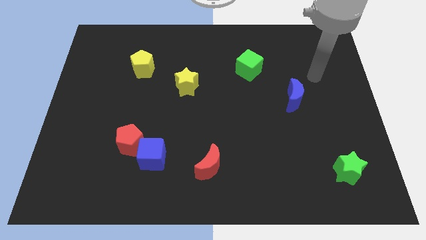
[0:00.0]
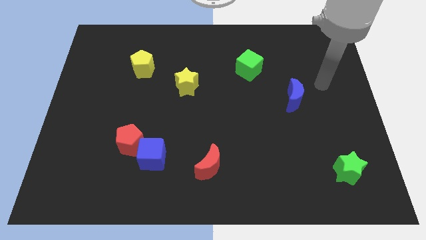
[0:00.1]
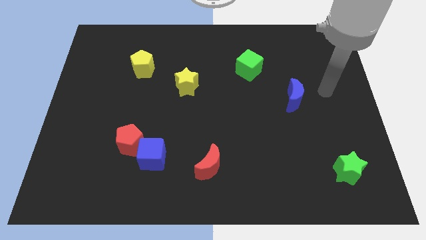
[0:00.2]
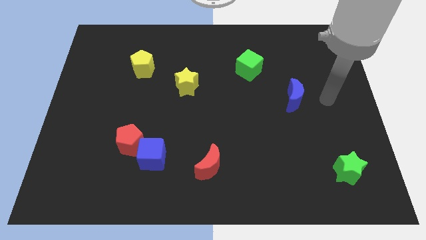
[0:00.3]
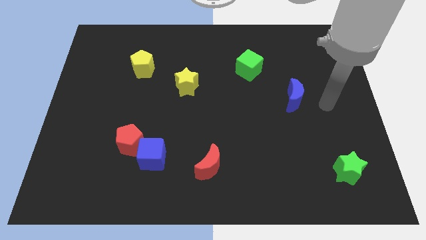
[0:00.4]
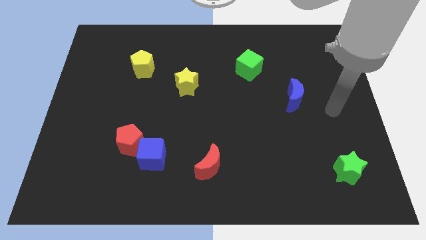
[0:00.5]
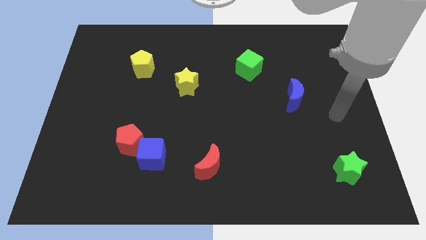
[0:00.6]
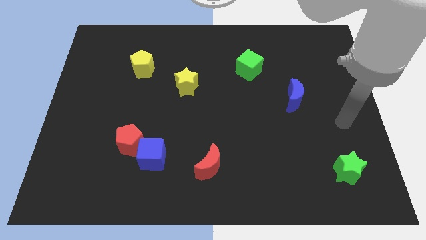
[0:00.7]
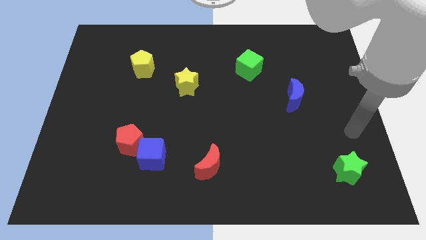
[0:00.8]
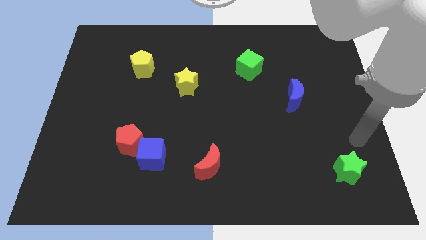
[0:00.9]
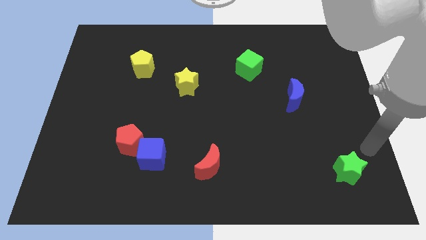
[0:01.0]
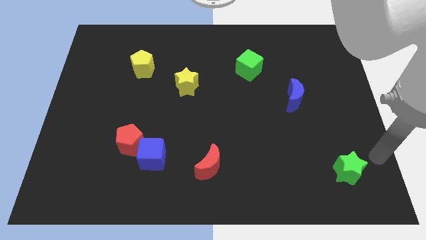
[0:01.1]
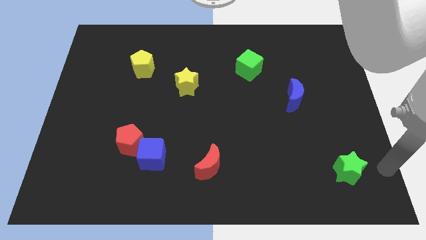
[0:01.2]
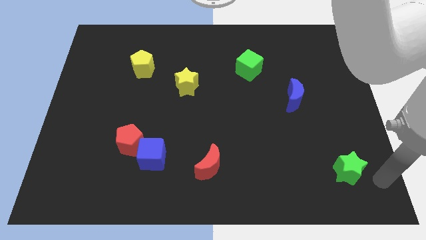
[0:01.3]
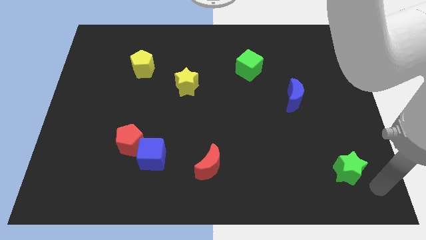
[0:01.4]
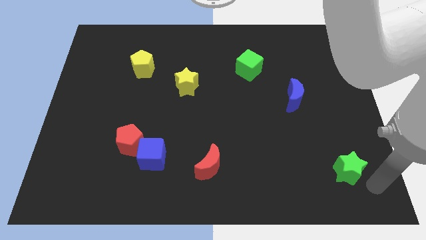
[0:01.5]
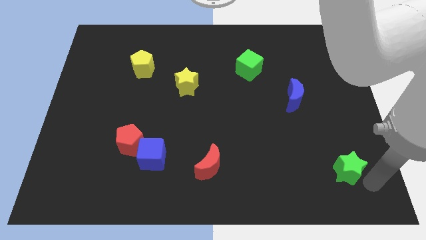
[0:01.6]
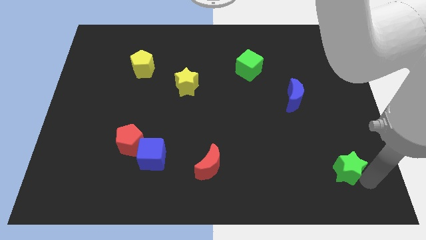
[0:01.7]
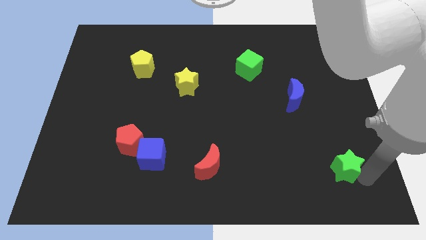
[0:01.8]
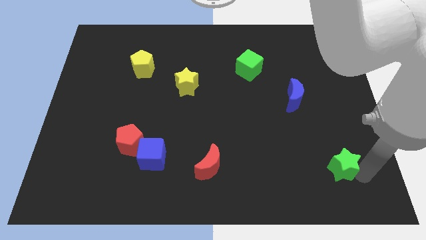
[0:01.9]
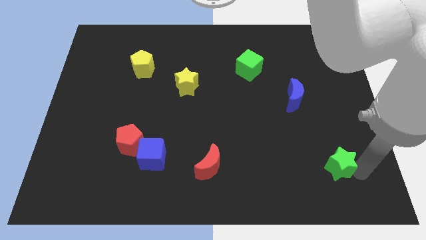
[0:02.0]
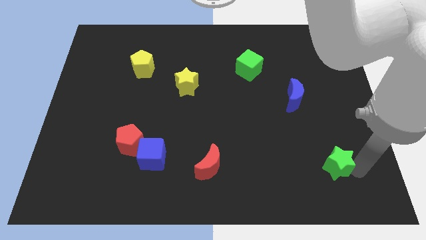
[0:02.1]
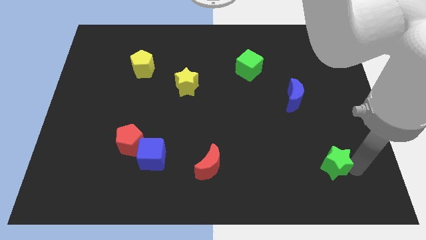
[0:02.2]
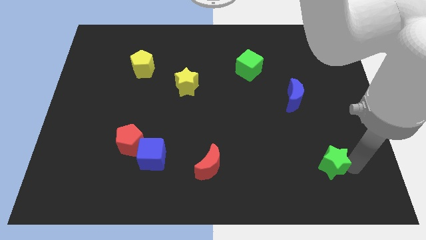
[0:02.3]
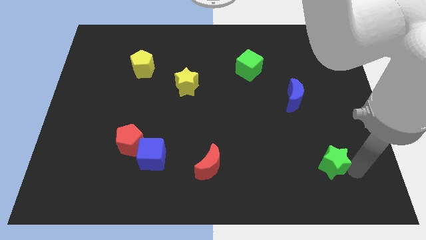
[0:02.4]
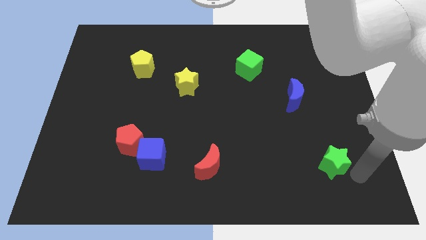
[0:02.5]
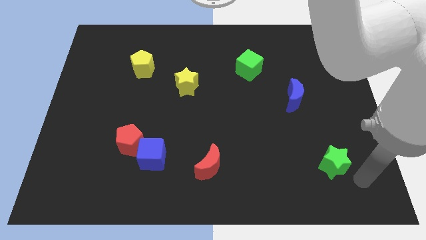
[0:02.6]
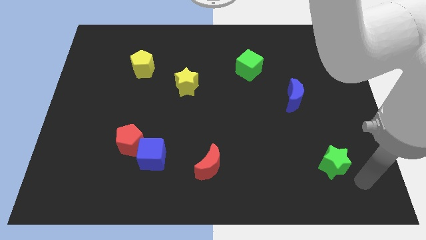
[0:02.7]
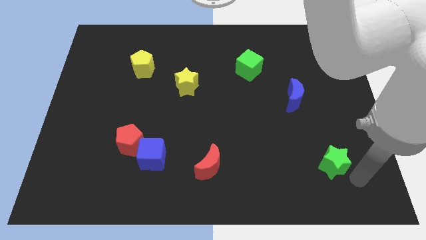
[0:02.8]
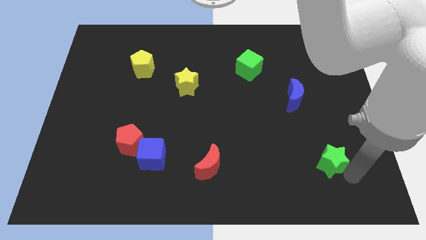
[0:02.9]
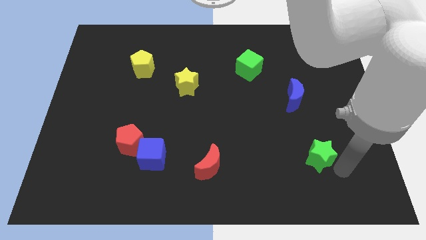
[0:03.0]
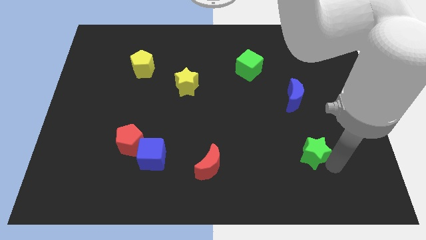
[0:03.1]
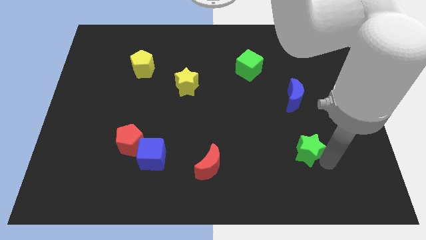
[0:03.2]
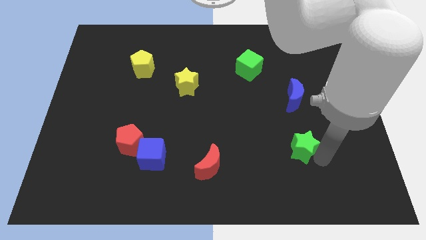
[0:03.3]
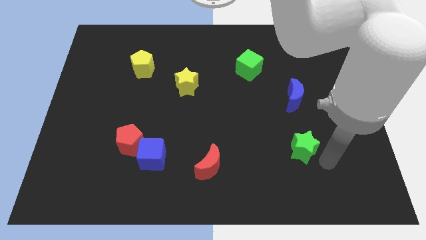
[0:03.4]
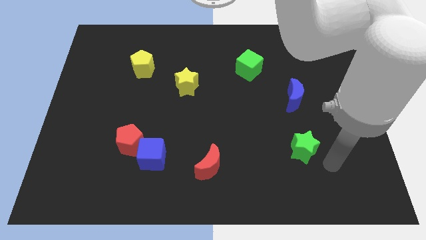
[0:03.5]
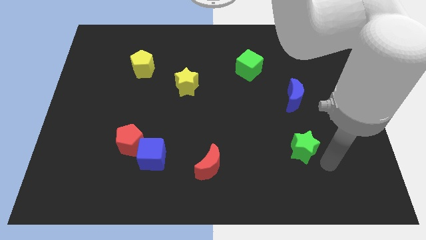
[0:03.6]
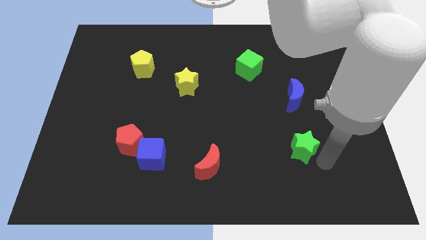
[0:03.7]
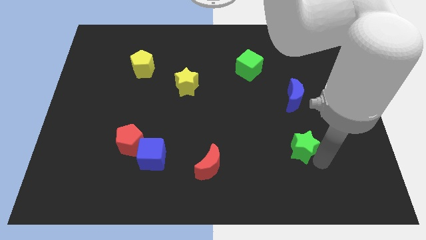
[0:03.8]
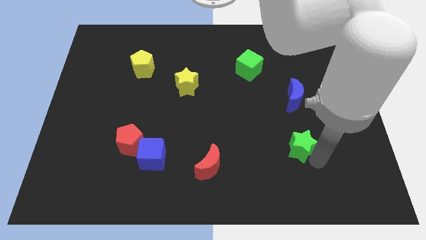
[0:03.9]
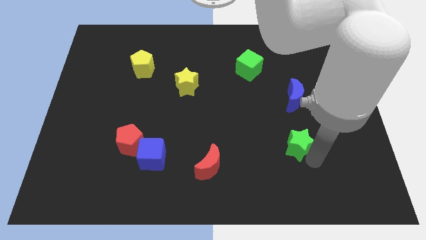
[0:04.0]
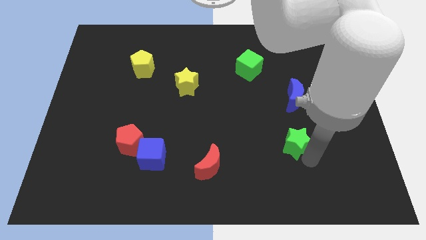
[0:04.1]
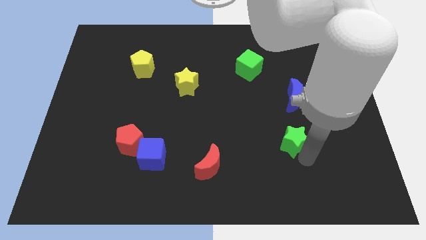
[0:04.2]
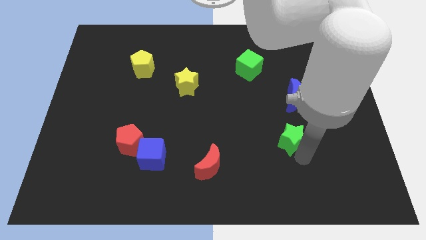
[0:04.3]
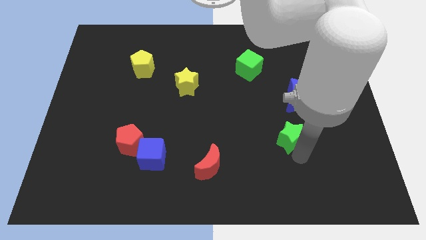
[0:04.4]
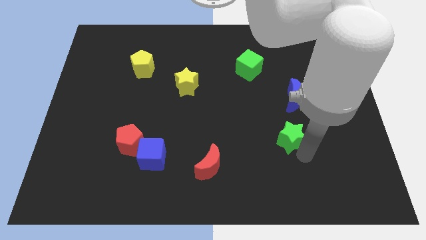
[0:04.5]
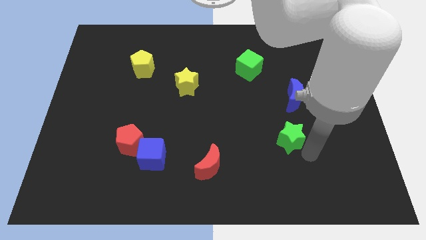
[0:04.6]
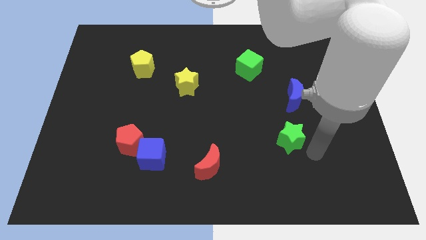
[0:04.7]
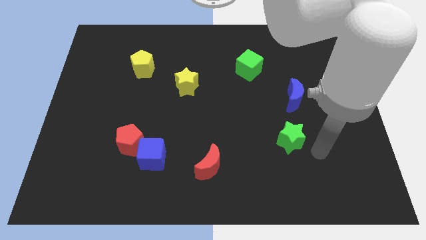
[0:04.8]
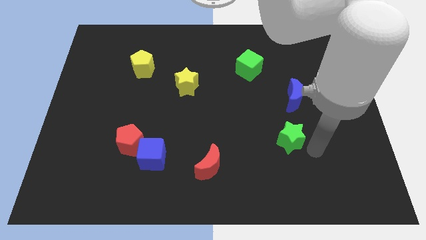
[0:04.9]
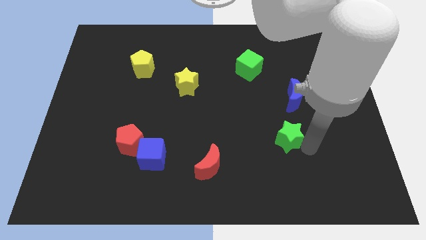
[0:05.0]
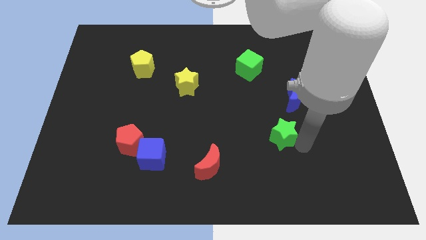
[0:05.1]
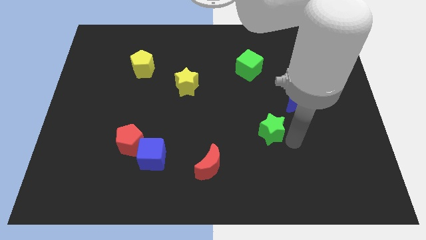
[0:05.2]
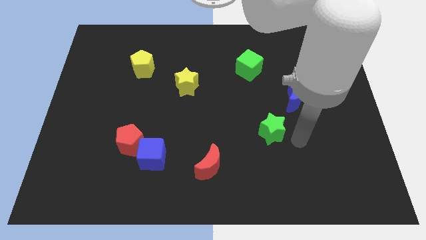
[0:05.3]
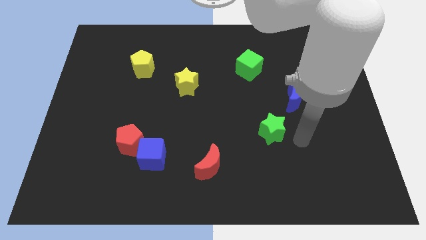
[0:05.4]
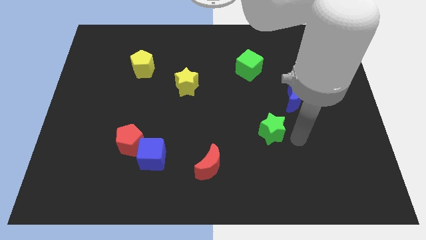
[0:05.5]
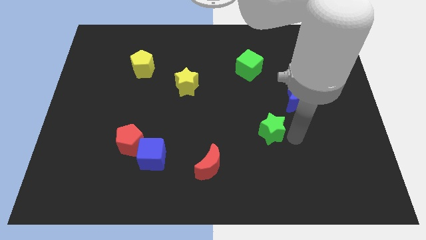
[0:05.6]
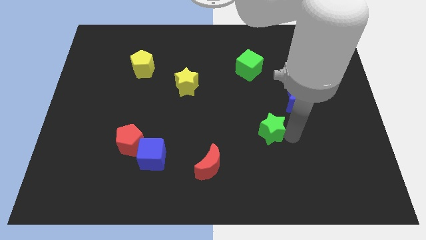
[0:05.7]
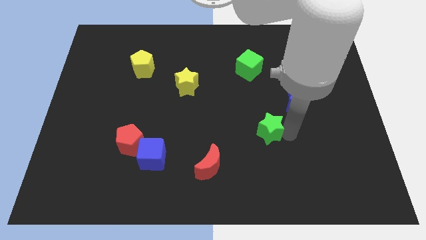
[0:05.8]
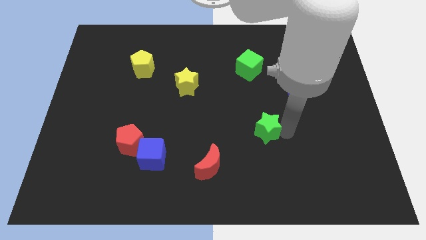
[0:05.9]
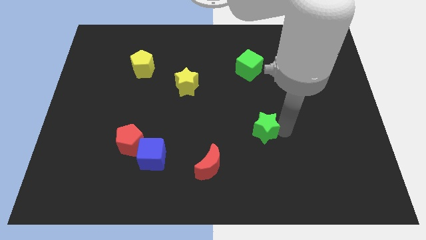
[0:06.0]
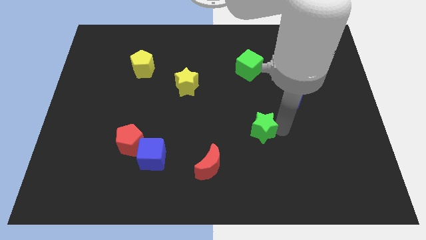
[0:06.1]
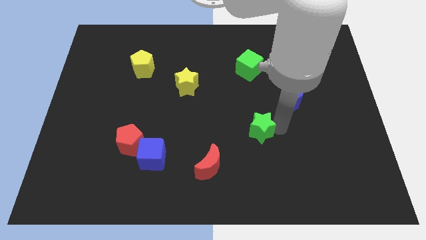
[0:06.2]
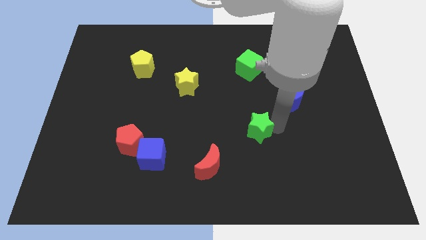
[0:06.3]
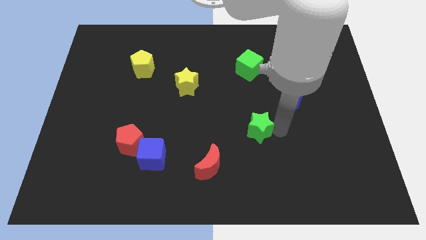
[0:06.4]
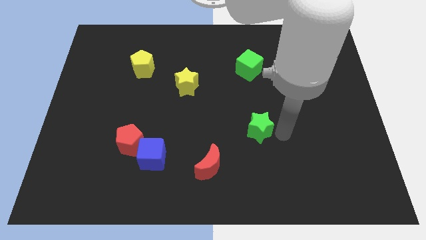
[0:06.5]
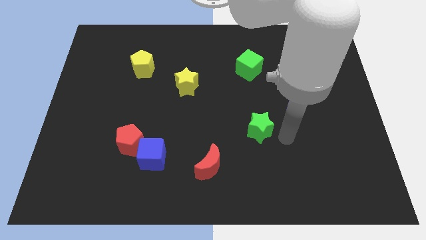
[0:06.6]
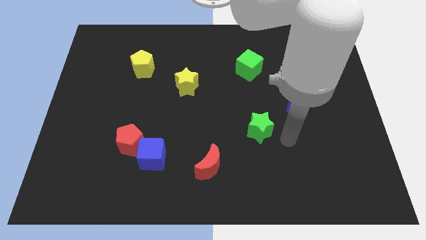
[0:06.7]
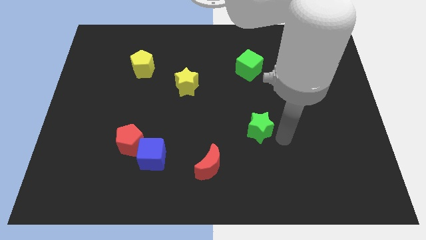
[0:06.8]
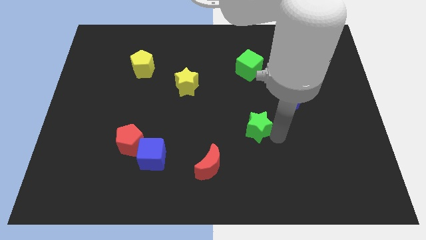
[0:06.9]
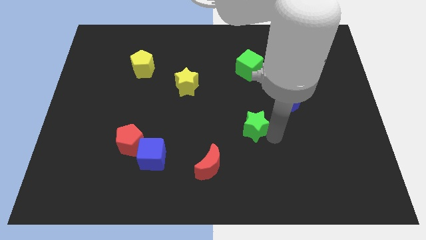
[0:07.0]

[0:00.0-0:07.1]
push the green star to the middle

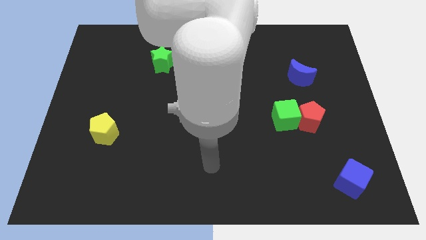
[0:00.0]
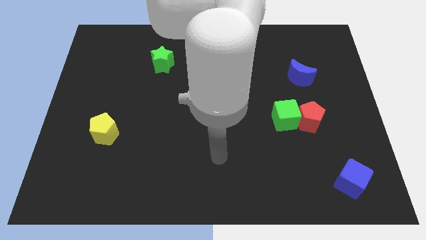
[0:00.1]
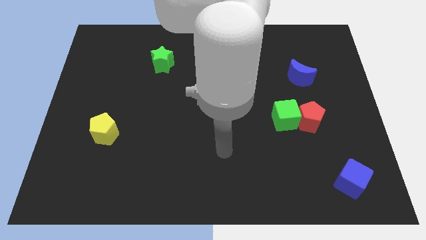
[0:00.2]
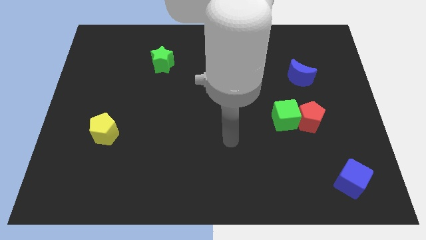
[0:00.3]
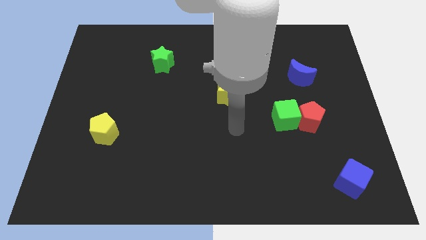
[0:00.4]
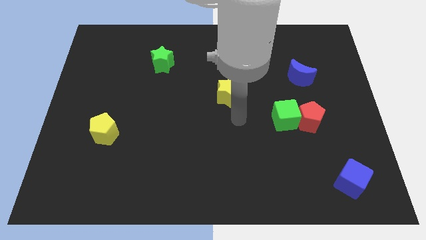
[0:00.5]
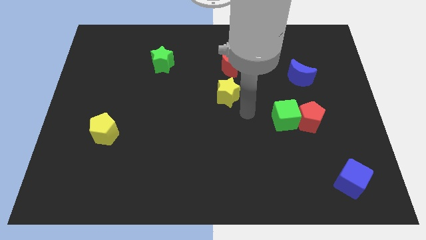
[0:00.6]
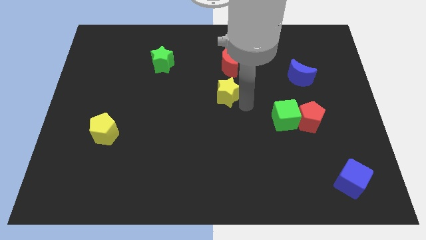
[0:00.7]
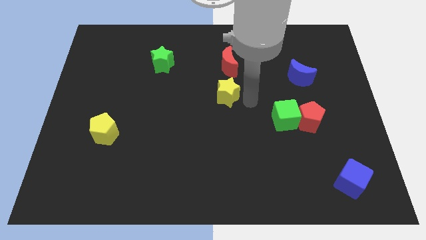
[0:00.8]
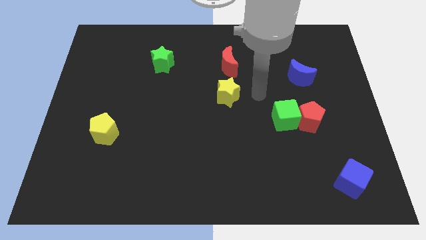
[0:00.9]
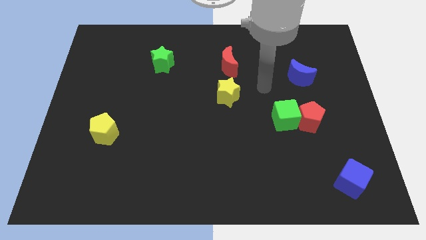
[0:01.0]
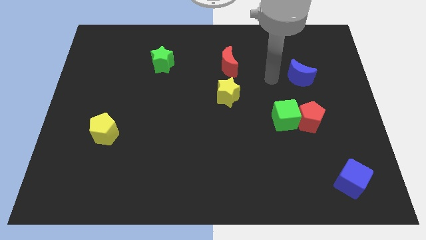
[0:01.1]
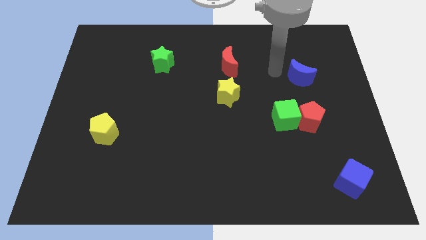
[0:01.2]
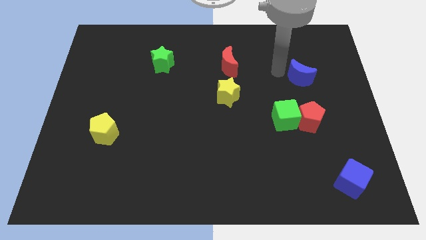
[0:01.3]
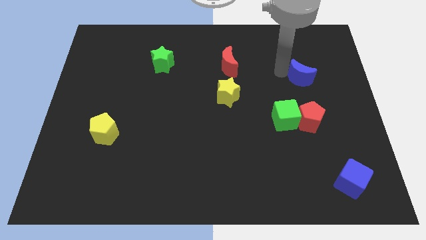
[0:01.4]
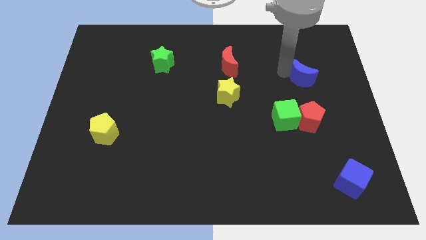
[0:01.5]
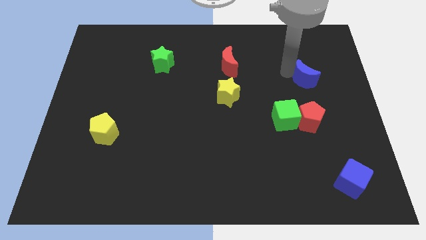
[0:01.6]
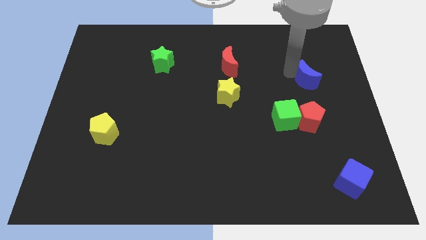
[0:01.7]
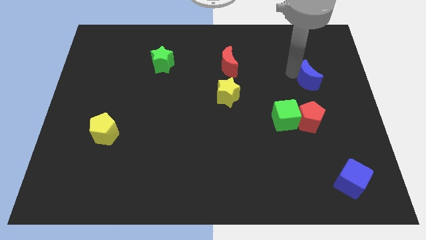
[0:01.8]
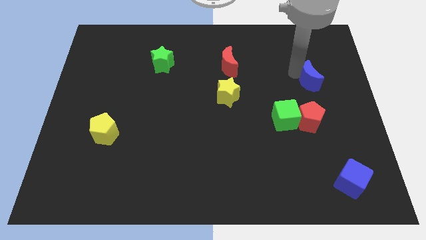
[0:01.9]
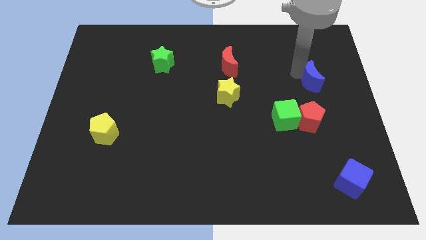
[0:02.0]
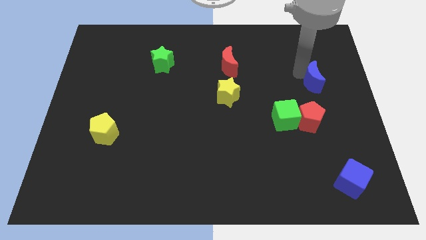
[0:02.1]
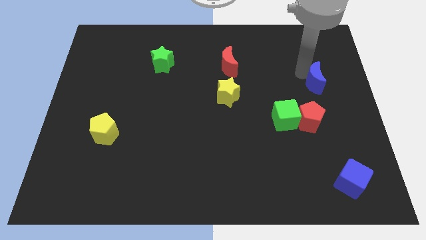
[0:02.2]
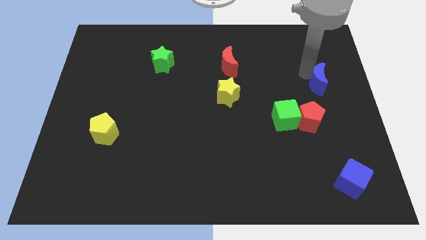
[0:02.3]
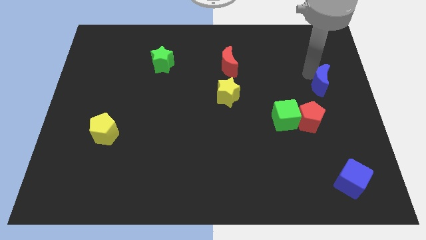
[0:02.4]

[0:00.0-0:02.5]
push the blue moon to the right side of the board
